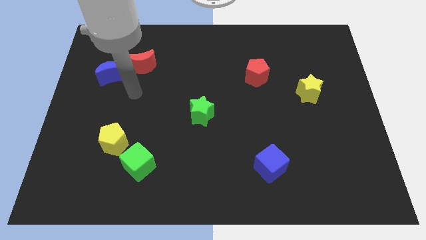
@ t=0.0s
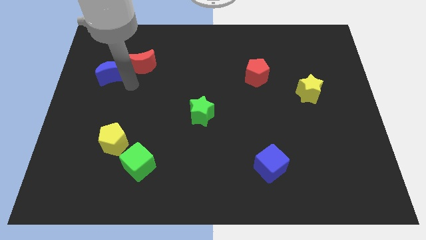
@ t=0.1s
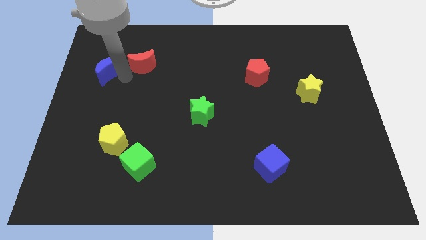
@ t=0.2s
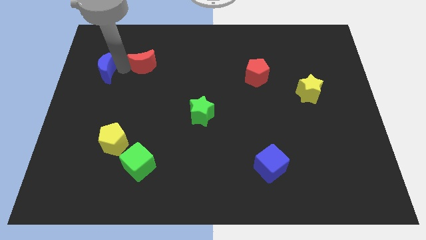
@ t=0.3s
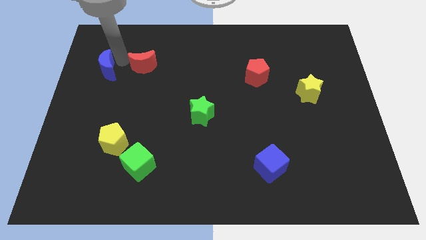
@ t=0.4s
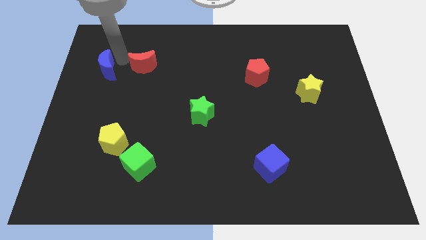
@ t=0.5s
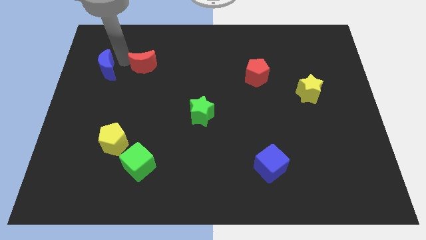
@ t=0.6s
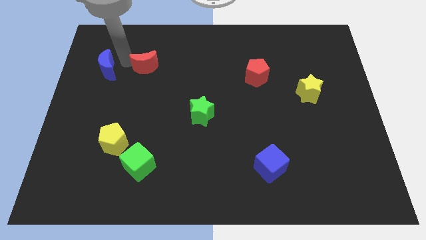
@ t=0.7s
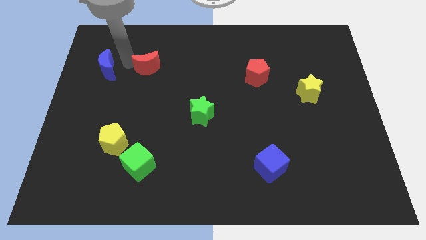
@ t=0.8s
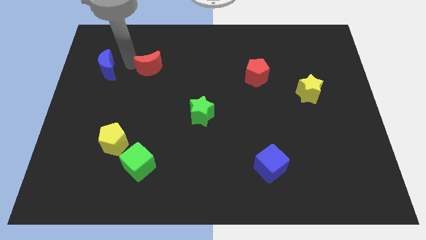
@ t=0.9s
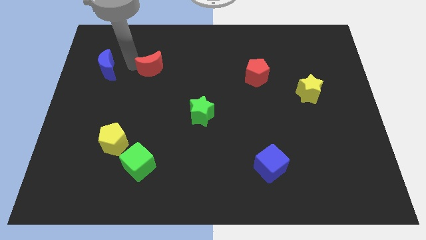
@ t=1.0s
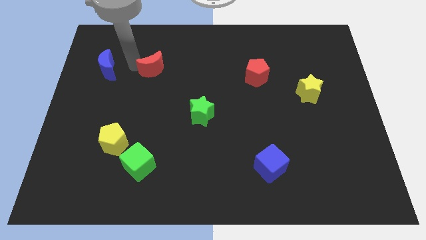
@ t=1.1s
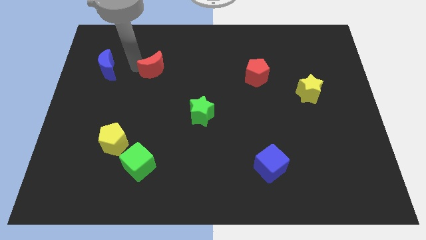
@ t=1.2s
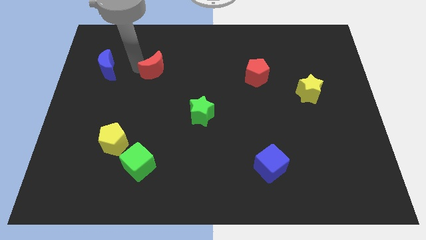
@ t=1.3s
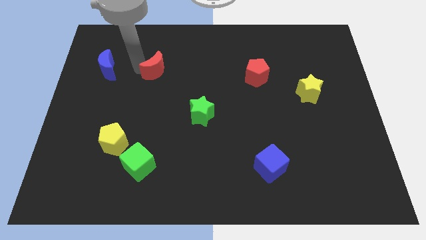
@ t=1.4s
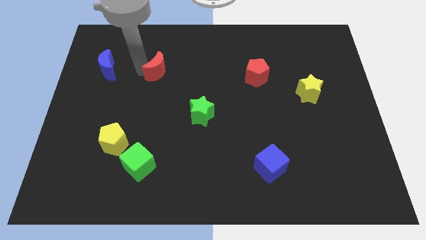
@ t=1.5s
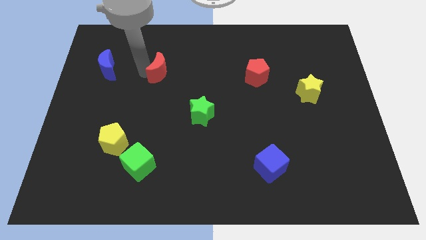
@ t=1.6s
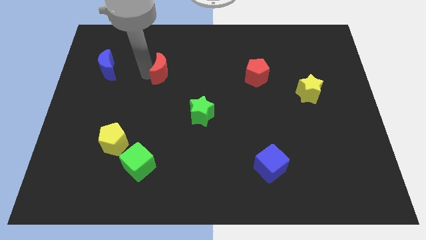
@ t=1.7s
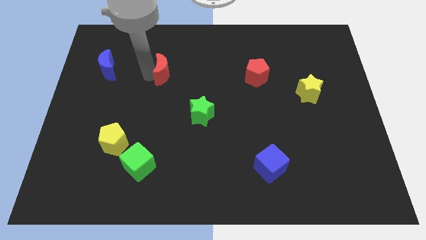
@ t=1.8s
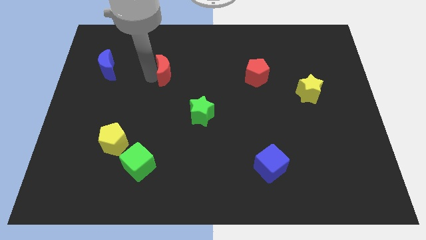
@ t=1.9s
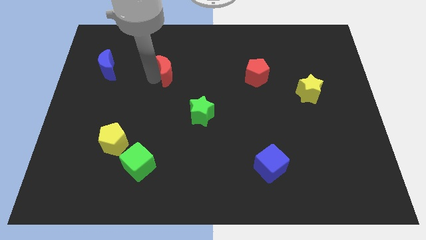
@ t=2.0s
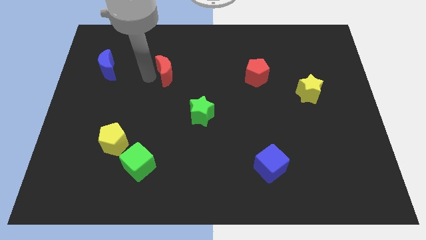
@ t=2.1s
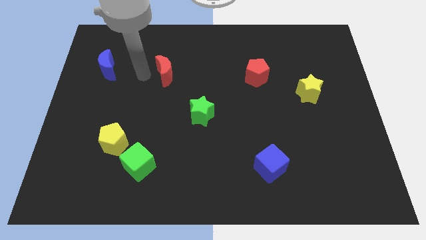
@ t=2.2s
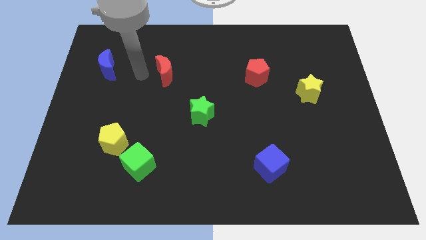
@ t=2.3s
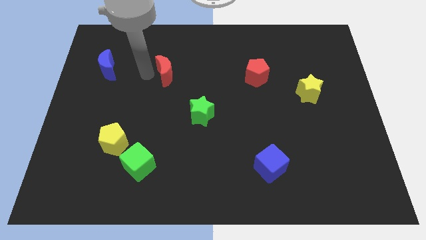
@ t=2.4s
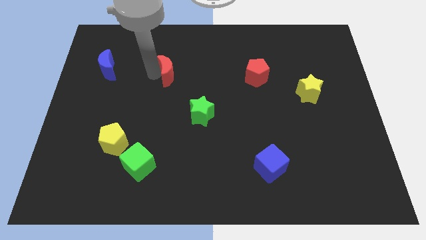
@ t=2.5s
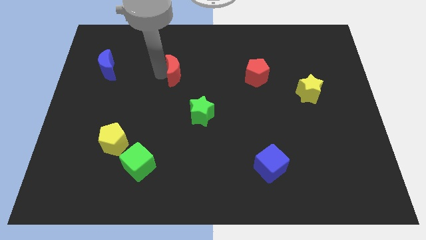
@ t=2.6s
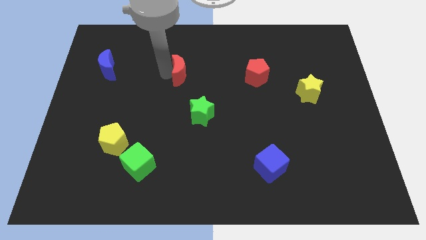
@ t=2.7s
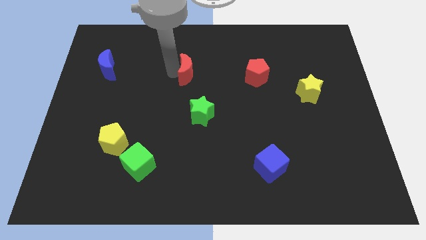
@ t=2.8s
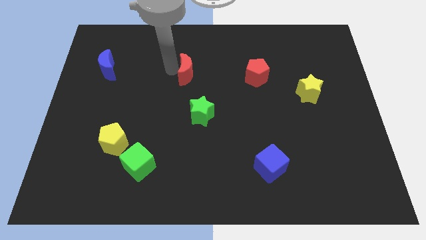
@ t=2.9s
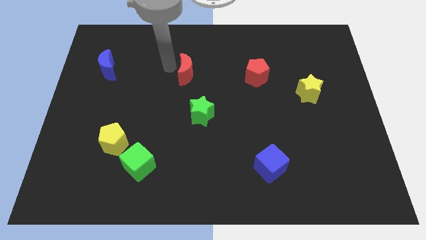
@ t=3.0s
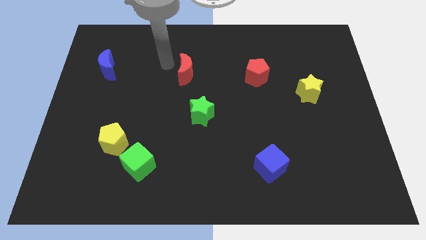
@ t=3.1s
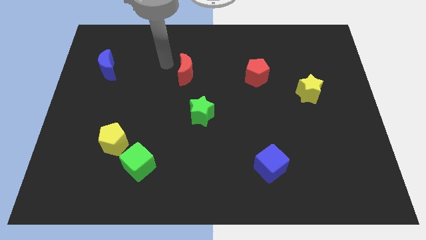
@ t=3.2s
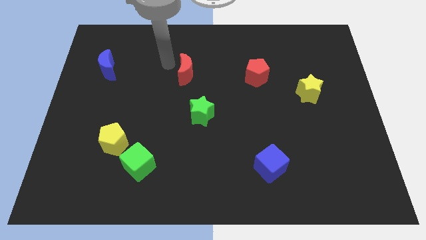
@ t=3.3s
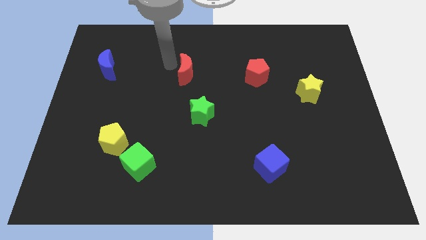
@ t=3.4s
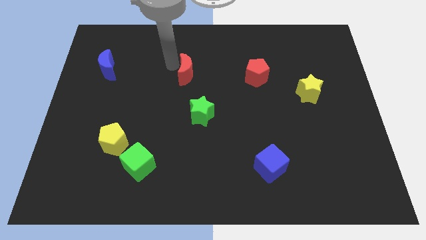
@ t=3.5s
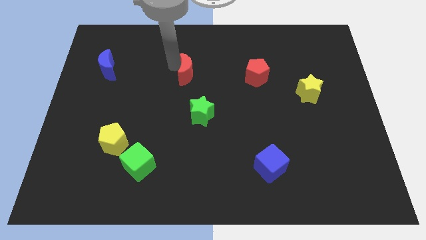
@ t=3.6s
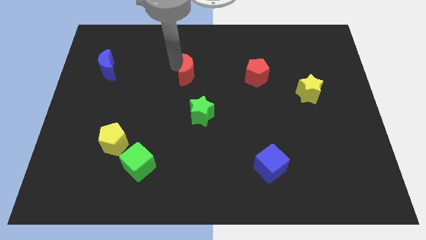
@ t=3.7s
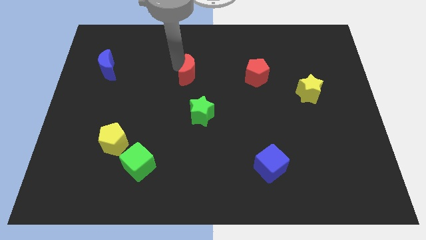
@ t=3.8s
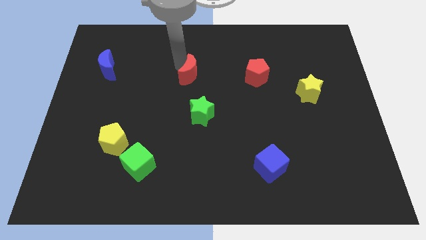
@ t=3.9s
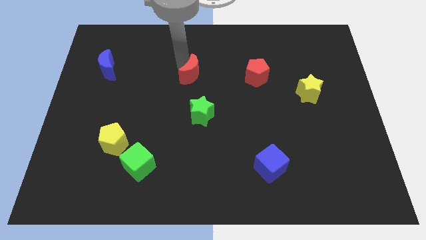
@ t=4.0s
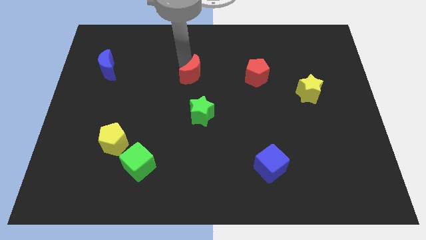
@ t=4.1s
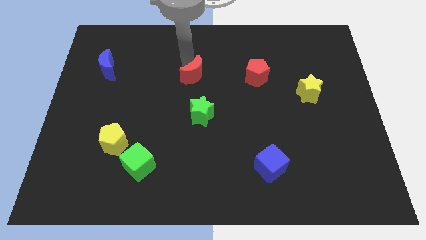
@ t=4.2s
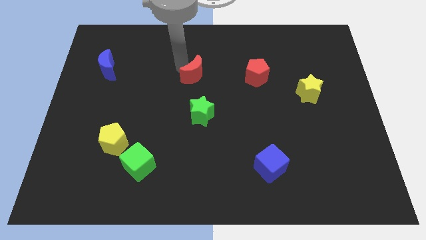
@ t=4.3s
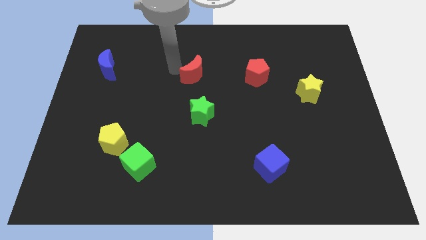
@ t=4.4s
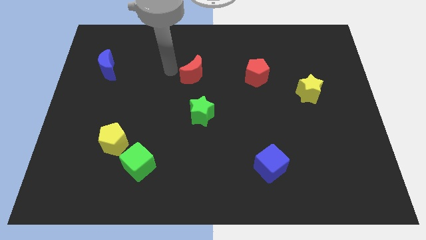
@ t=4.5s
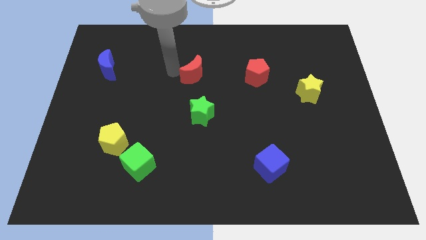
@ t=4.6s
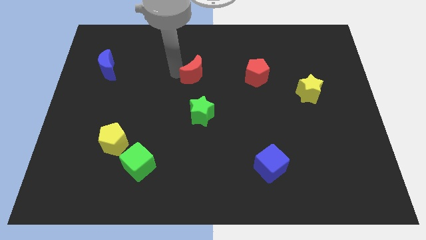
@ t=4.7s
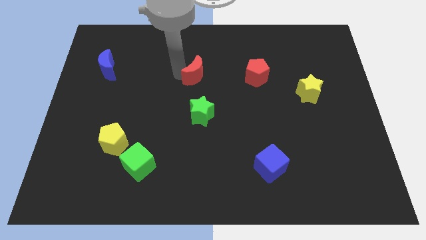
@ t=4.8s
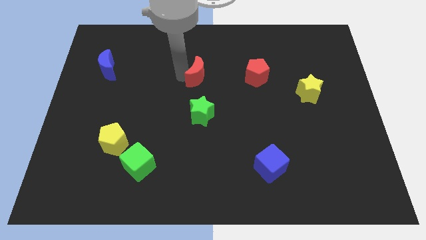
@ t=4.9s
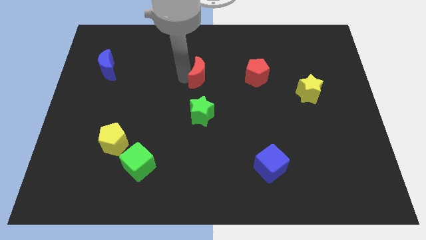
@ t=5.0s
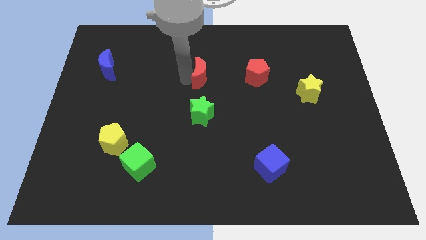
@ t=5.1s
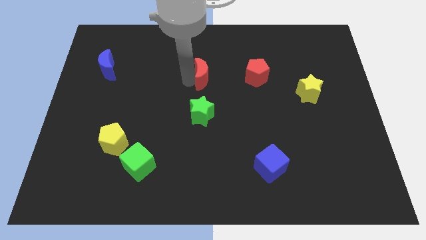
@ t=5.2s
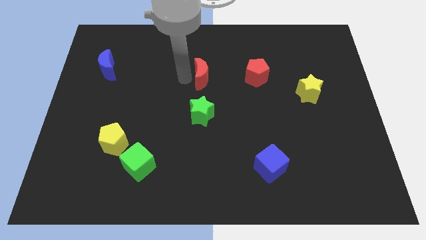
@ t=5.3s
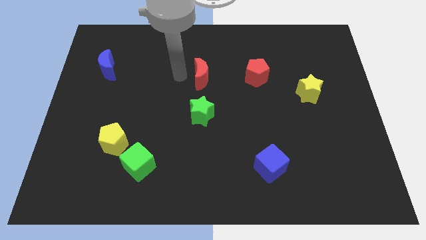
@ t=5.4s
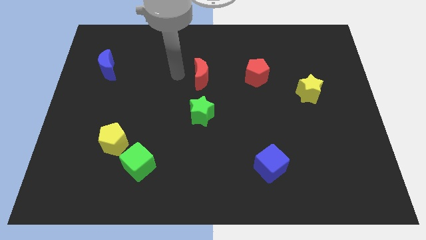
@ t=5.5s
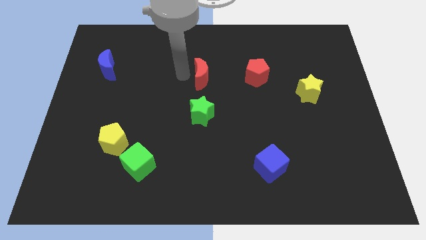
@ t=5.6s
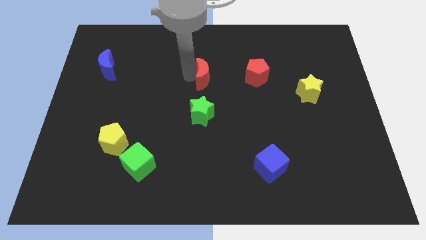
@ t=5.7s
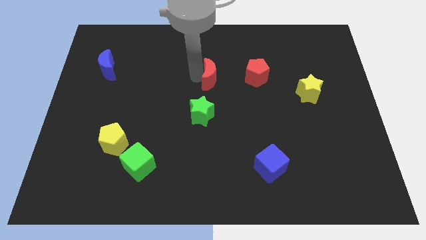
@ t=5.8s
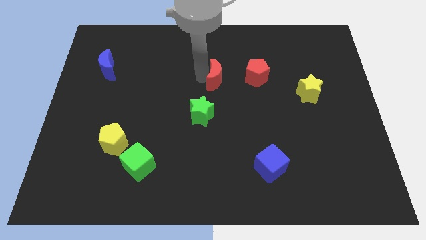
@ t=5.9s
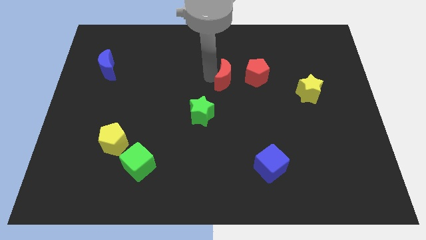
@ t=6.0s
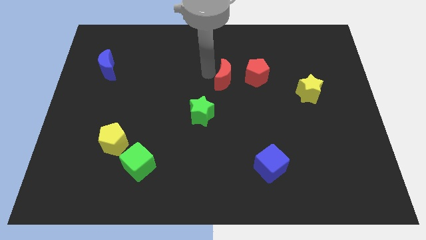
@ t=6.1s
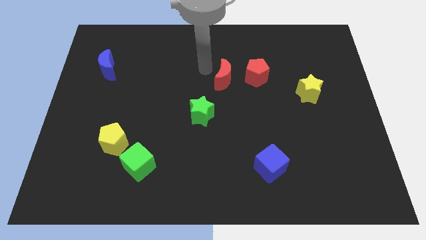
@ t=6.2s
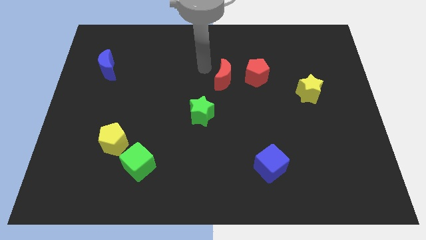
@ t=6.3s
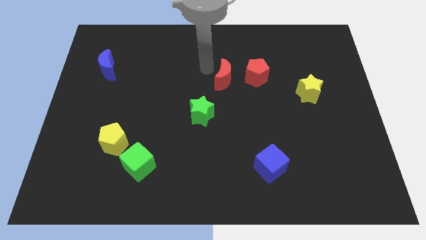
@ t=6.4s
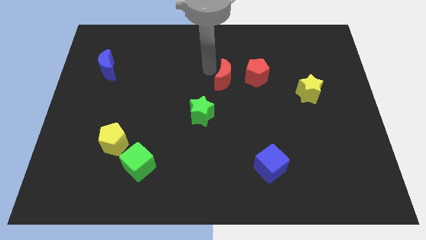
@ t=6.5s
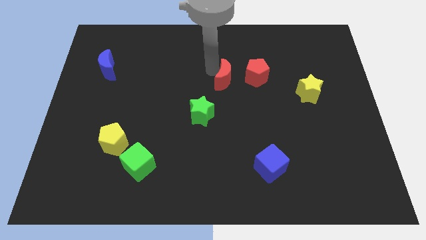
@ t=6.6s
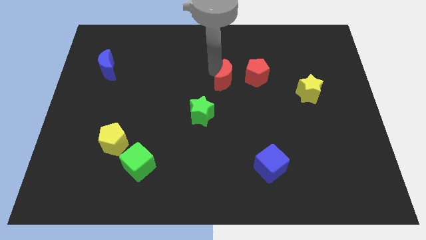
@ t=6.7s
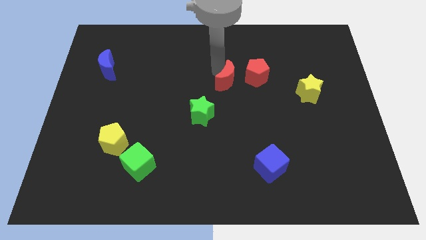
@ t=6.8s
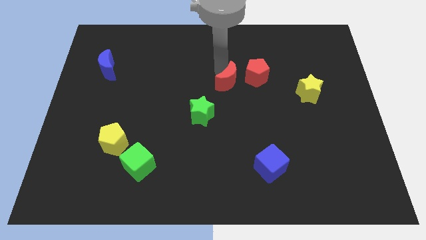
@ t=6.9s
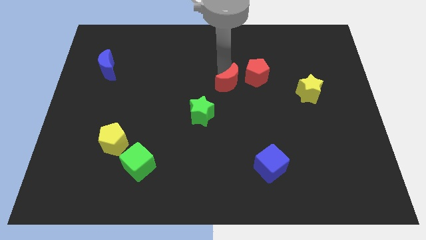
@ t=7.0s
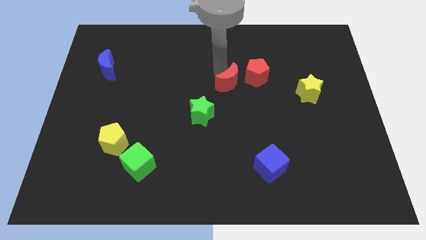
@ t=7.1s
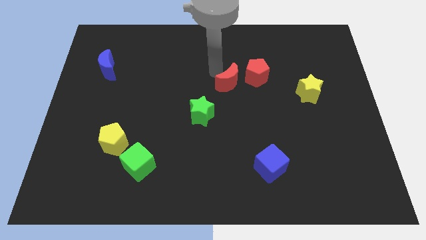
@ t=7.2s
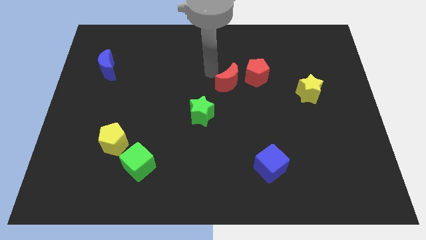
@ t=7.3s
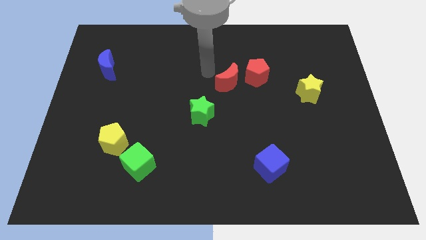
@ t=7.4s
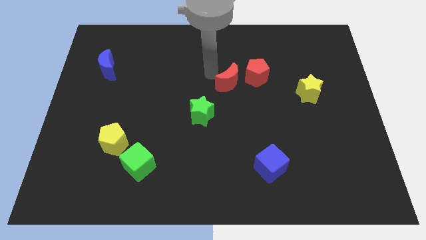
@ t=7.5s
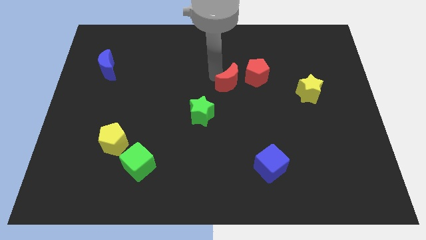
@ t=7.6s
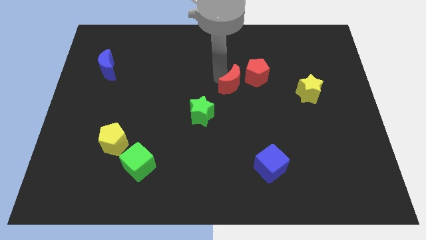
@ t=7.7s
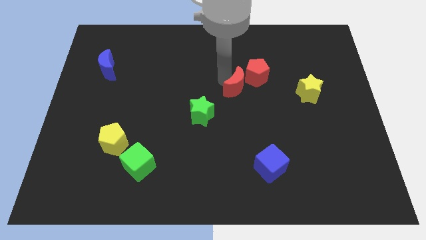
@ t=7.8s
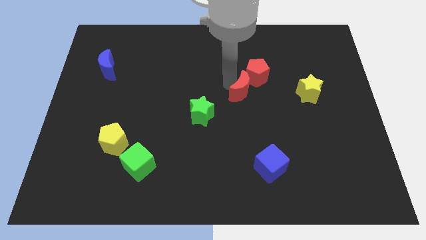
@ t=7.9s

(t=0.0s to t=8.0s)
push the red moon to the left side of the yellow star

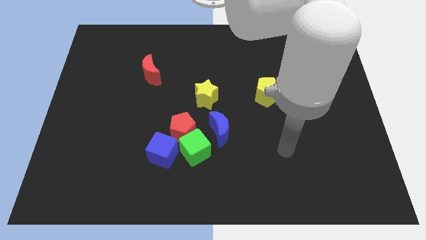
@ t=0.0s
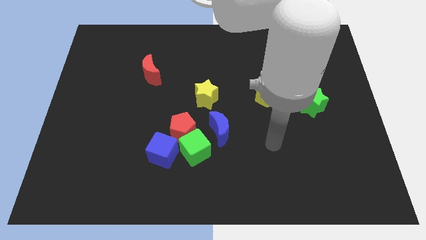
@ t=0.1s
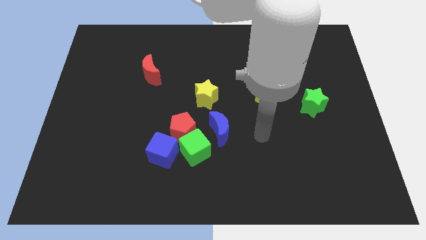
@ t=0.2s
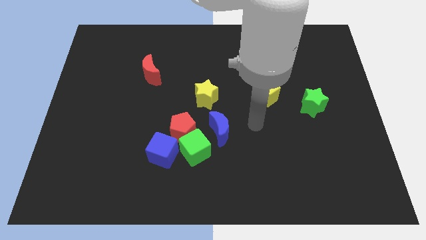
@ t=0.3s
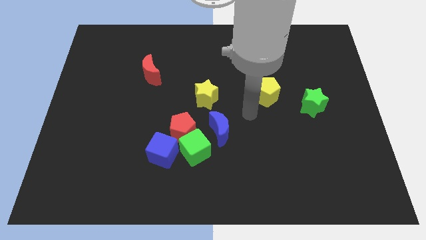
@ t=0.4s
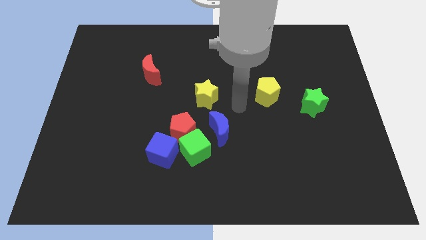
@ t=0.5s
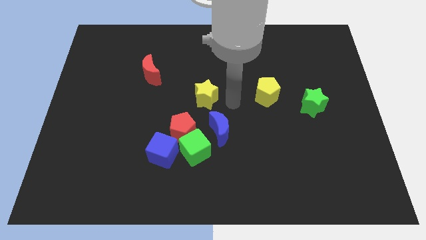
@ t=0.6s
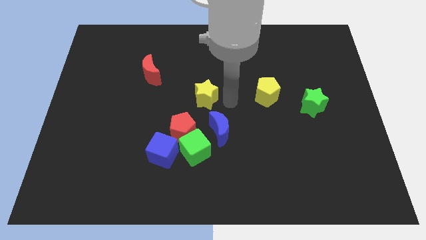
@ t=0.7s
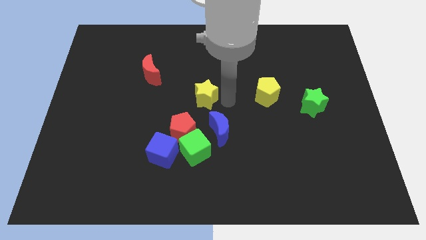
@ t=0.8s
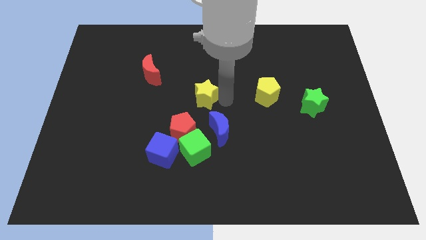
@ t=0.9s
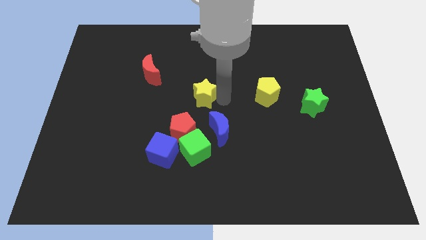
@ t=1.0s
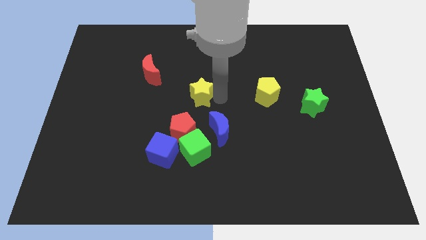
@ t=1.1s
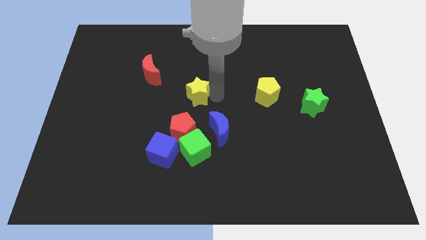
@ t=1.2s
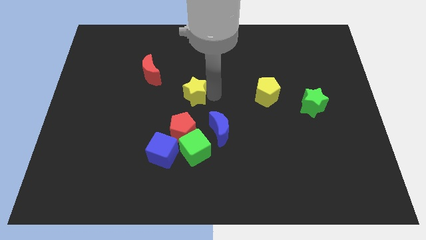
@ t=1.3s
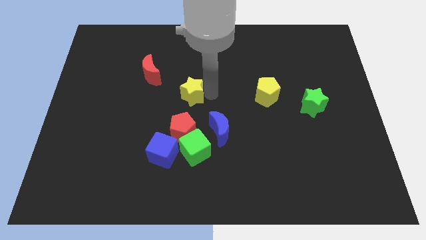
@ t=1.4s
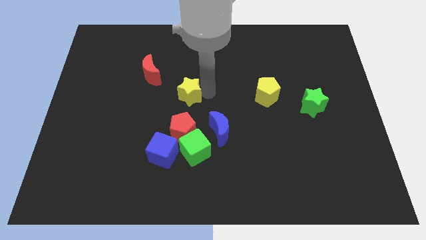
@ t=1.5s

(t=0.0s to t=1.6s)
push the yellow star diagonally down and to the right of the red moon
